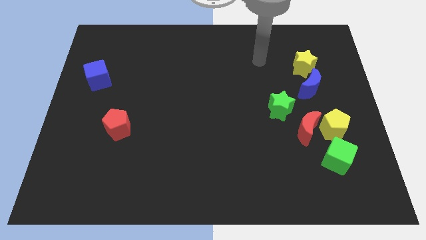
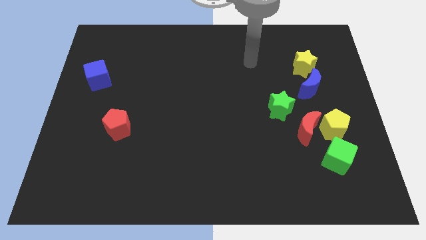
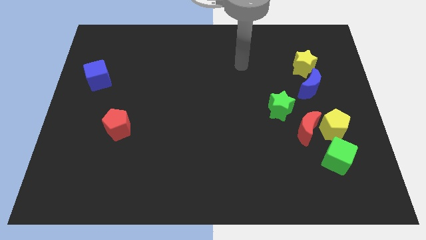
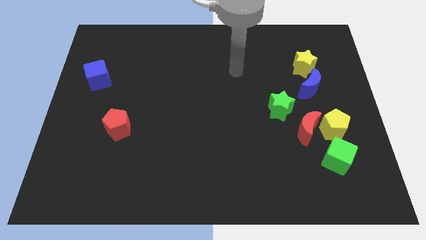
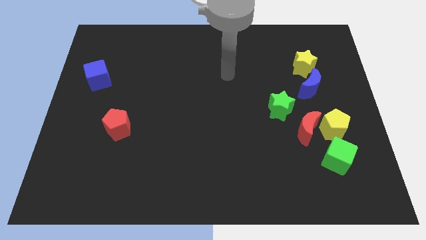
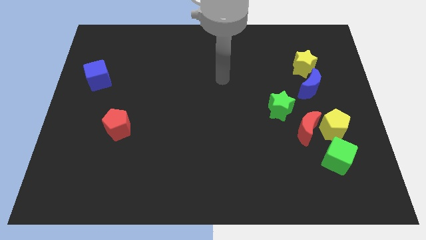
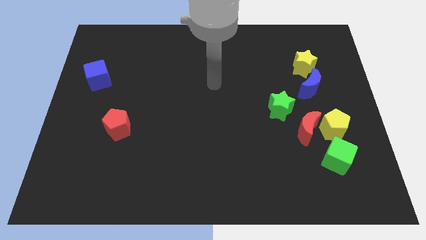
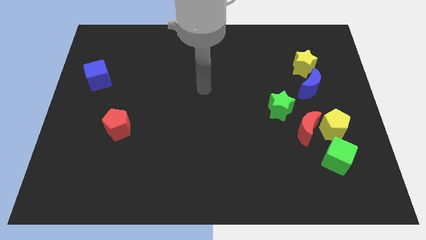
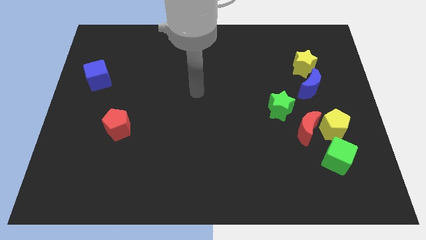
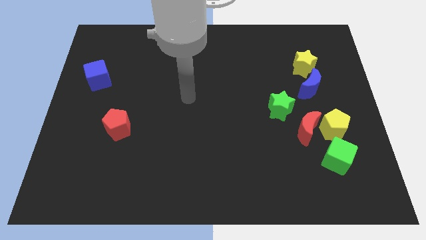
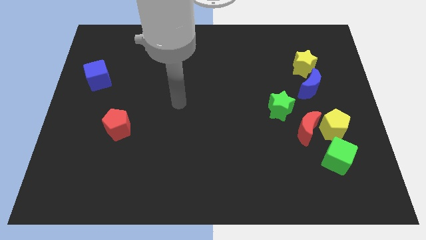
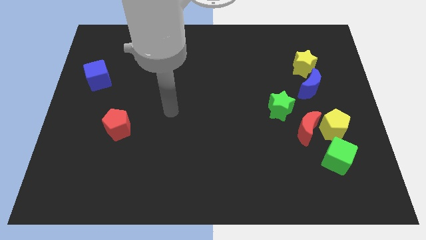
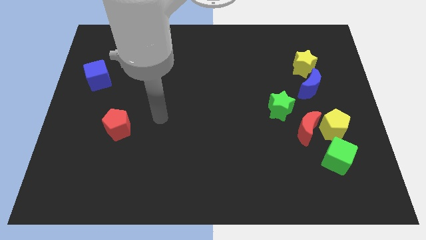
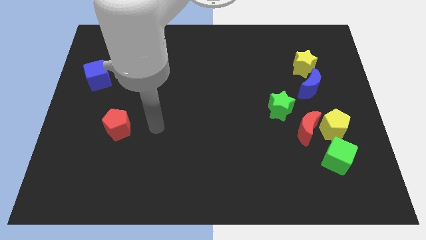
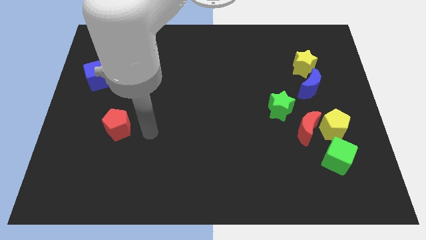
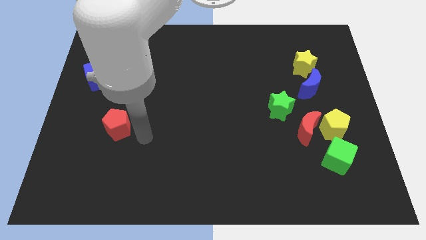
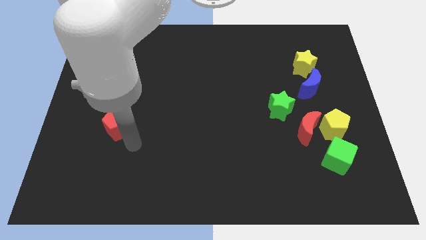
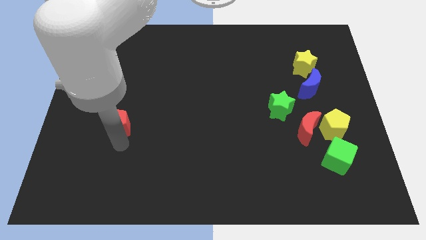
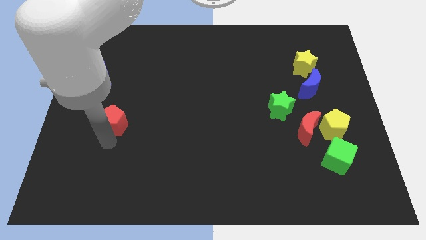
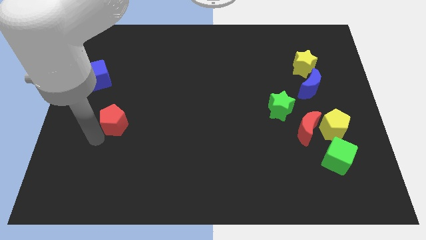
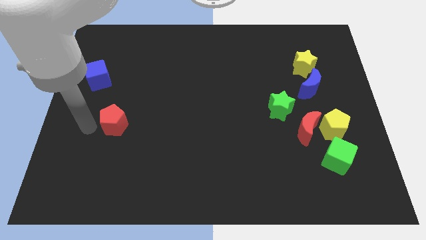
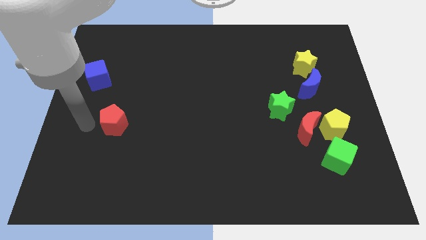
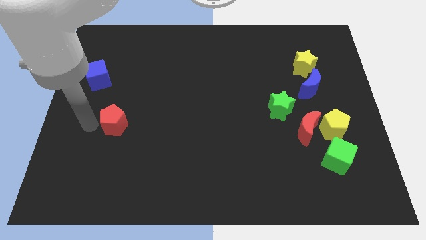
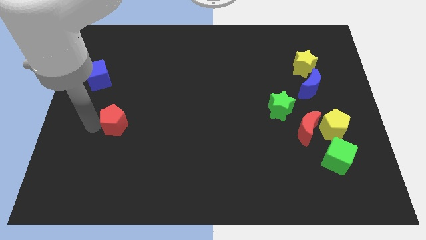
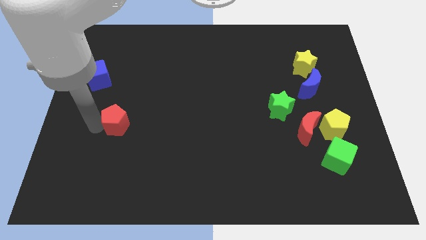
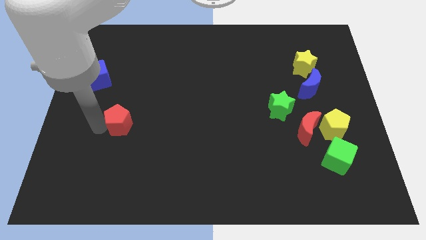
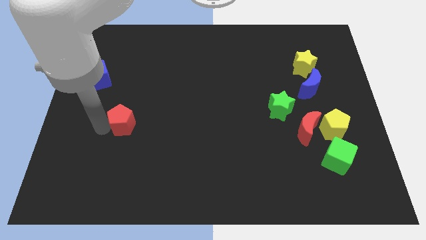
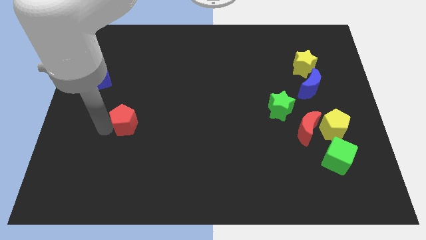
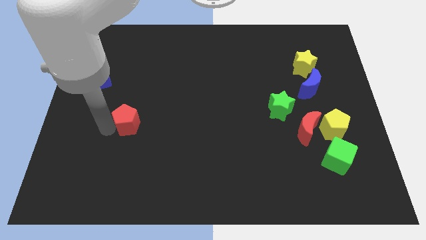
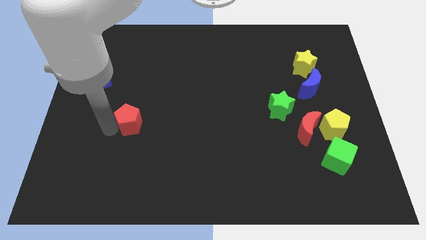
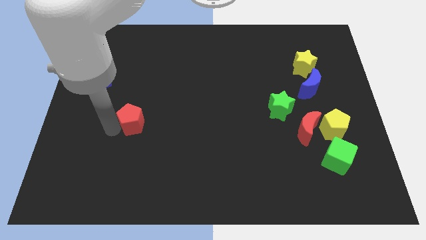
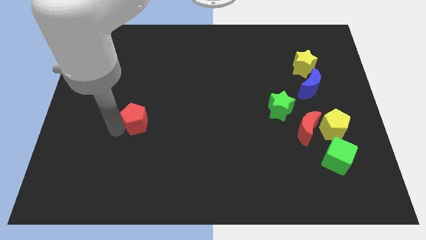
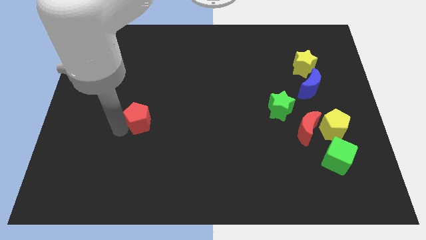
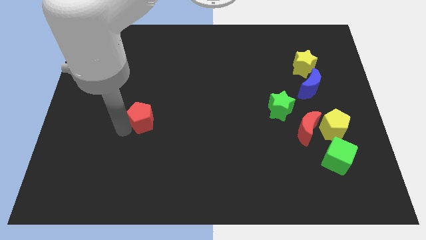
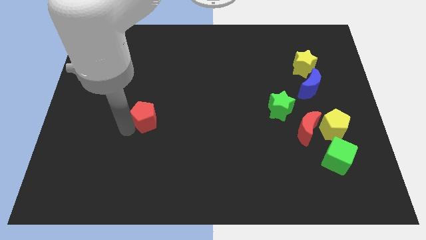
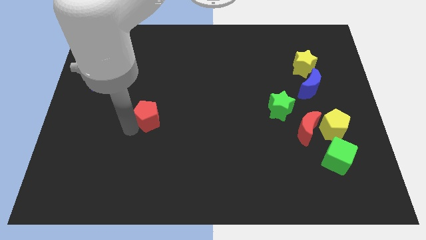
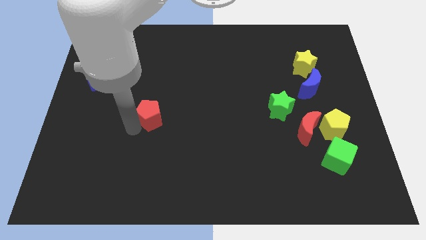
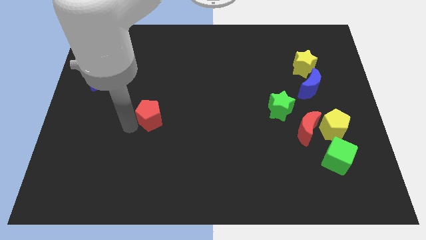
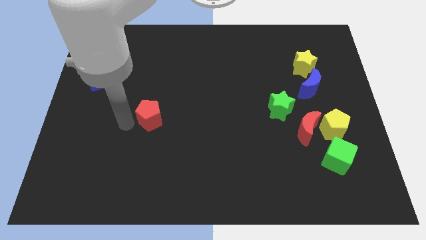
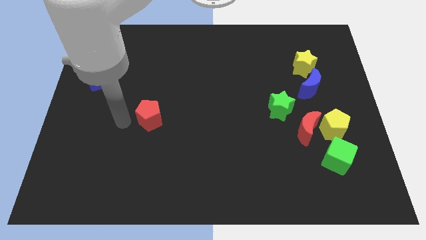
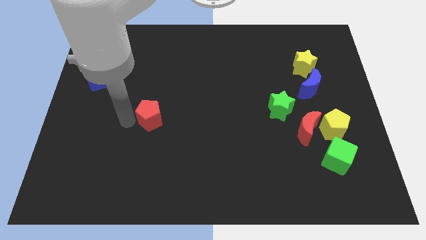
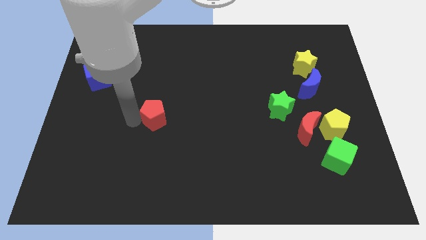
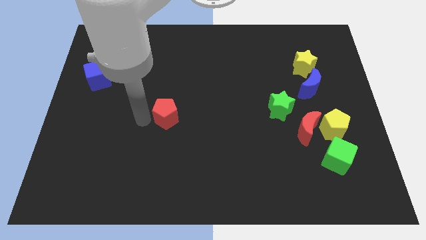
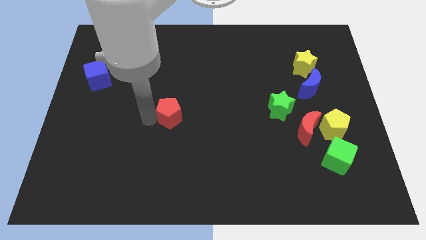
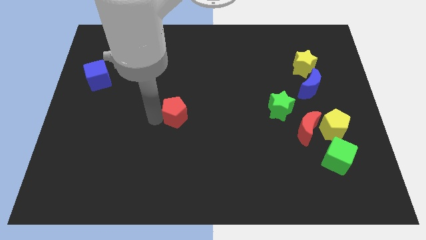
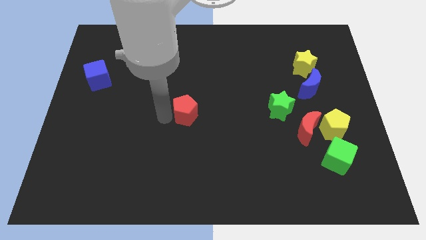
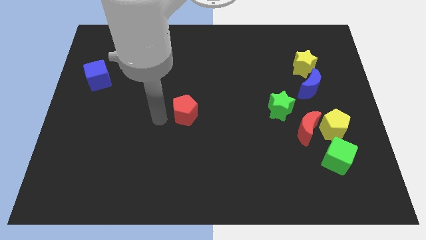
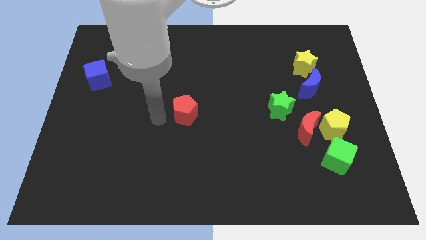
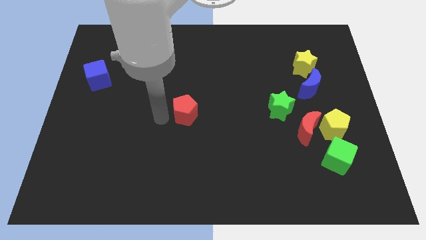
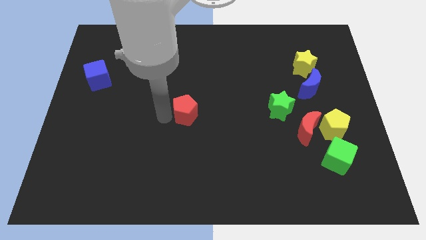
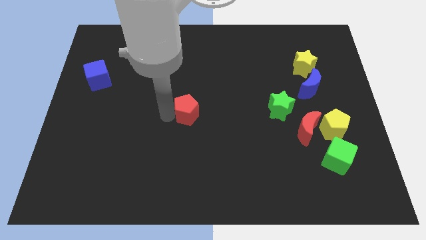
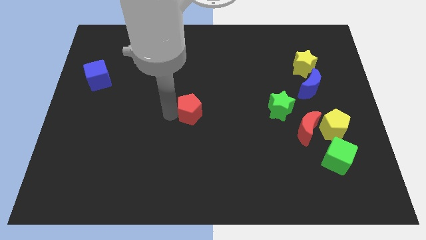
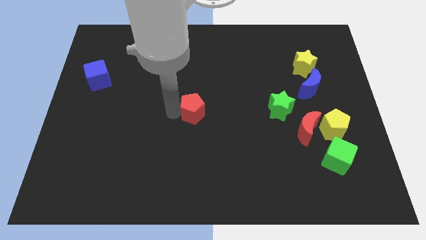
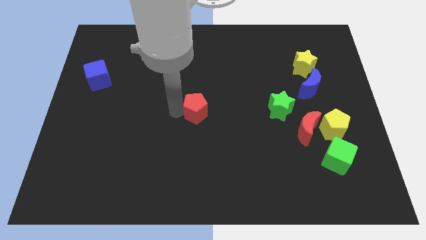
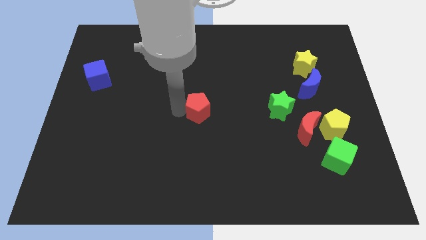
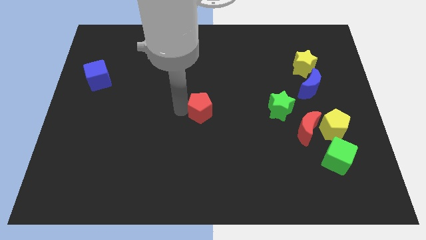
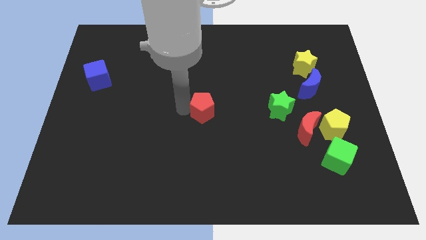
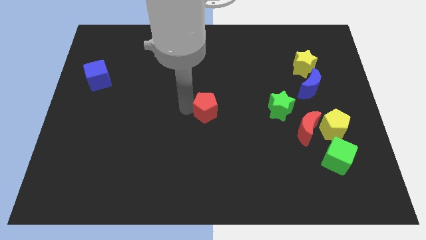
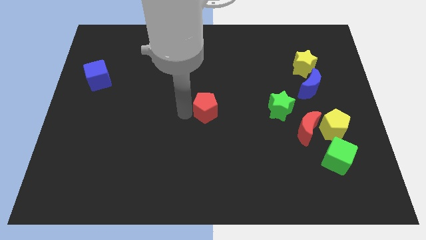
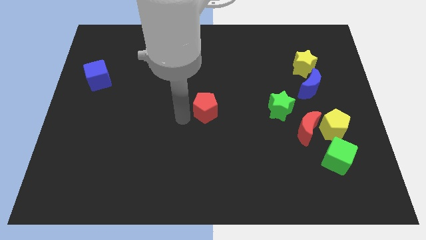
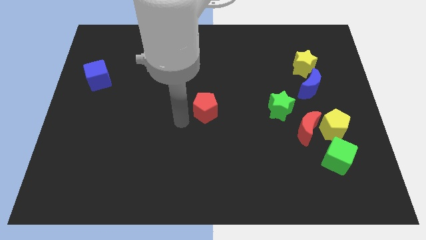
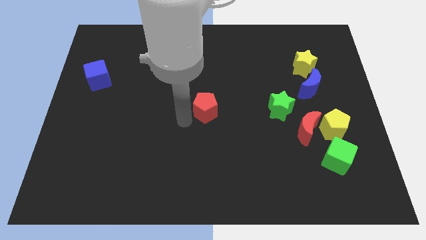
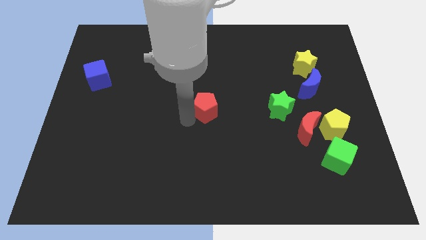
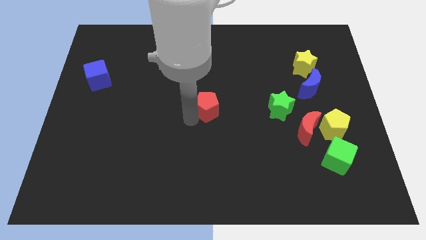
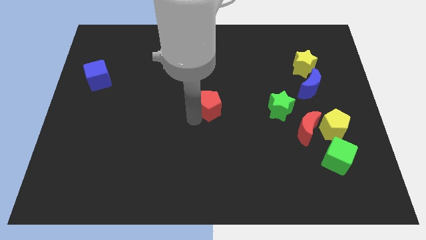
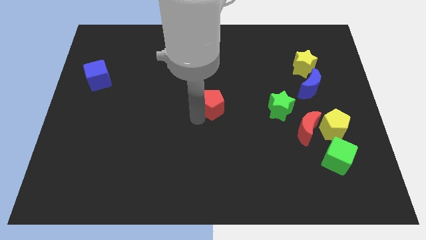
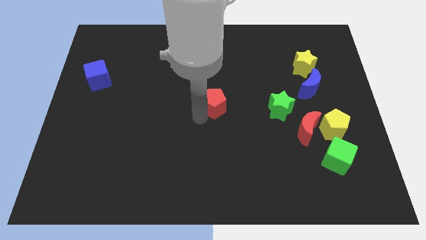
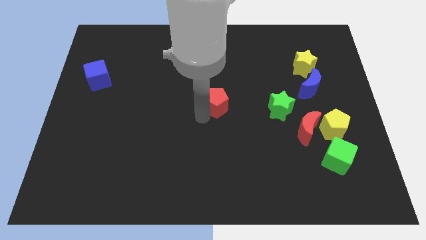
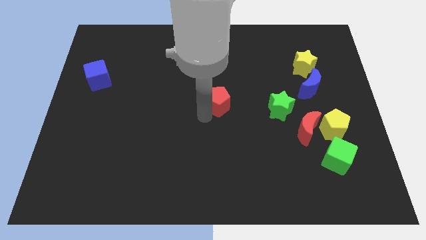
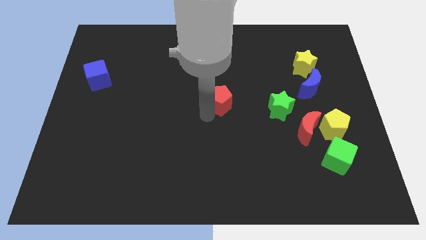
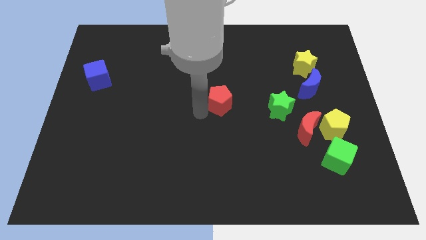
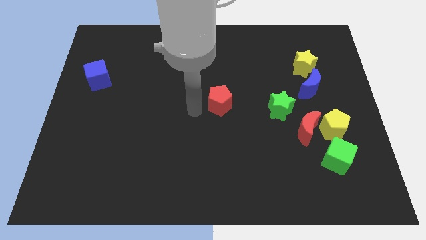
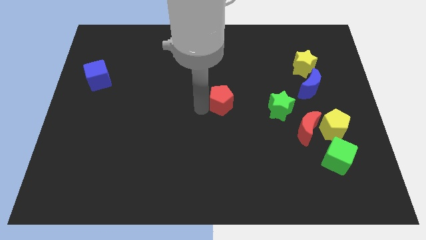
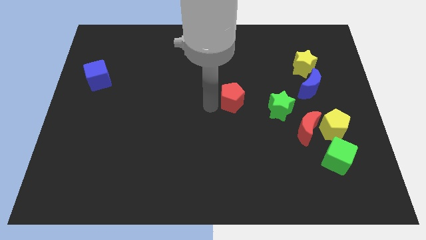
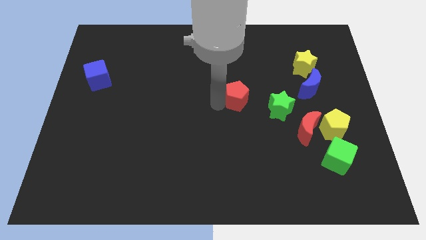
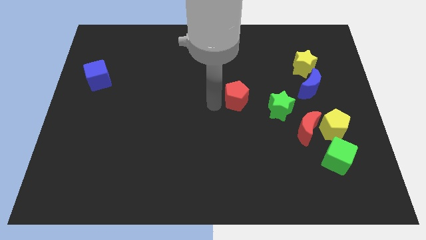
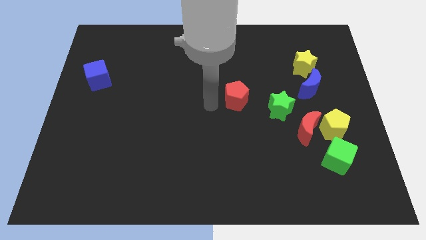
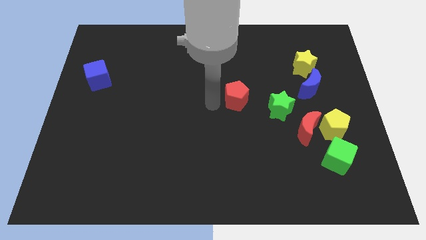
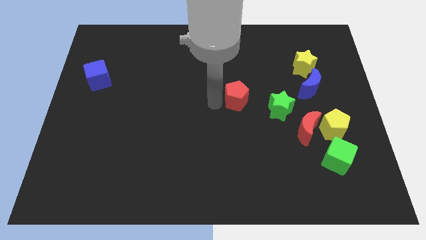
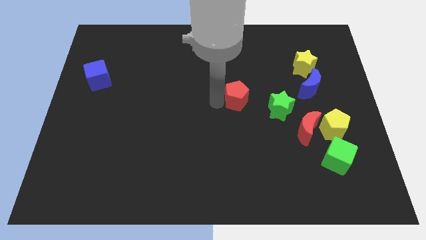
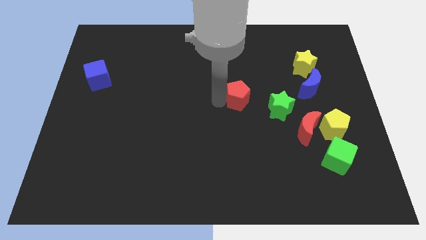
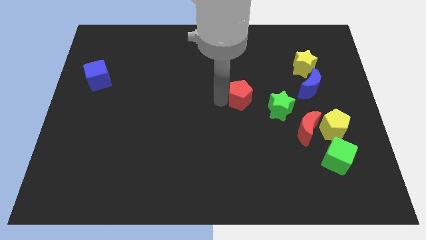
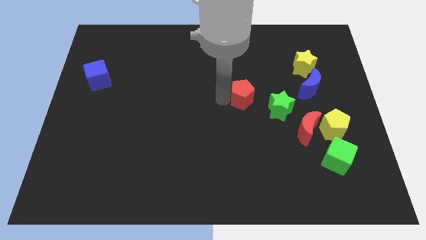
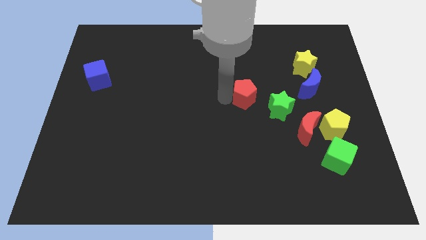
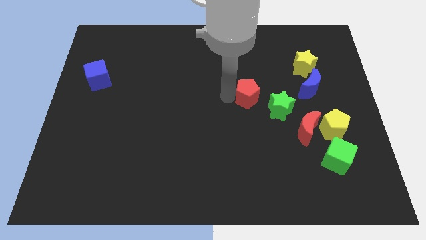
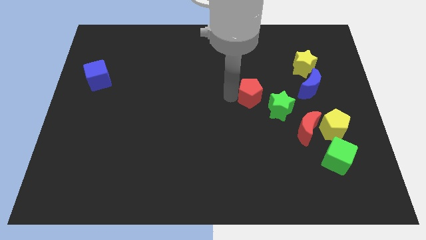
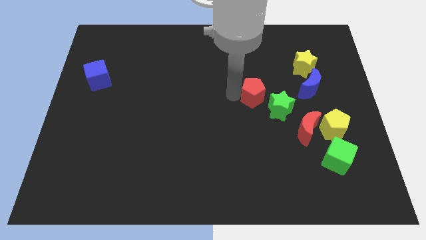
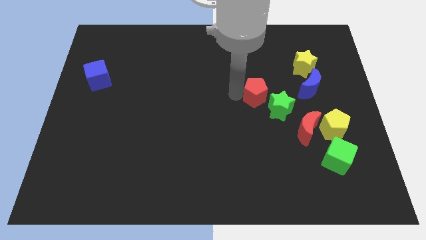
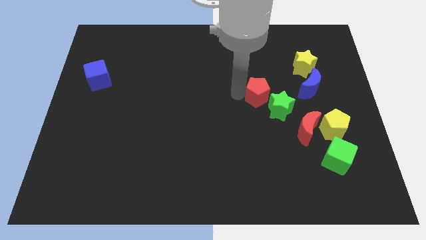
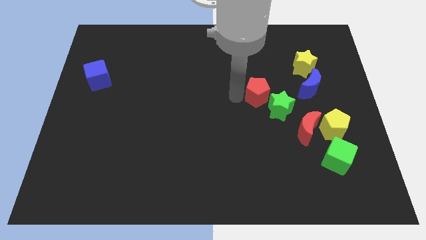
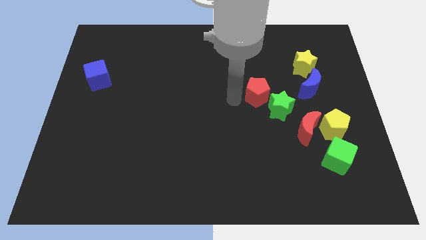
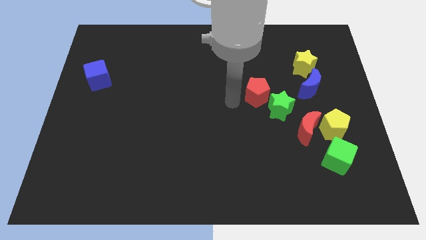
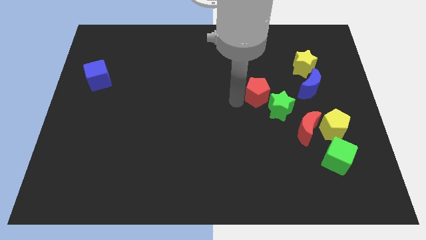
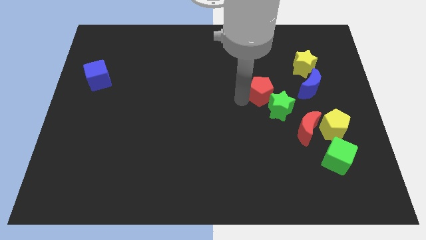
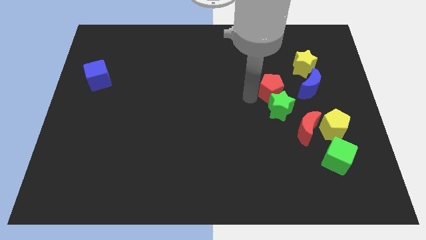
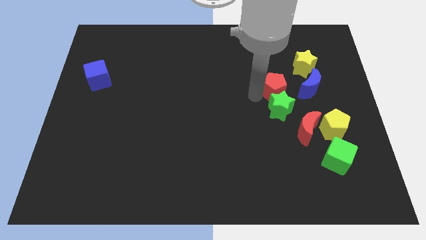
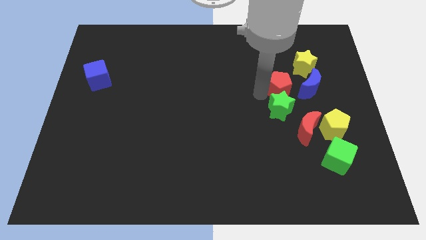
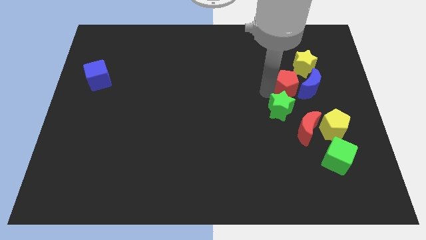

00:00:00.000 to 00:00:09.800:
push the red pentagon close to the blue moon
